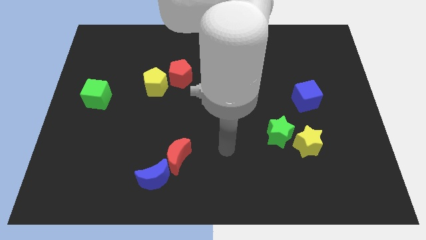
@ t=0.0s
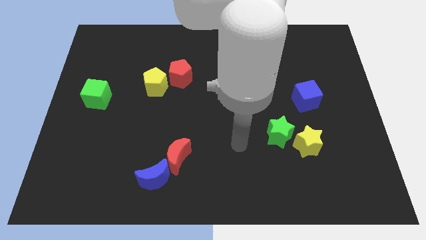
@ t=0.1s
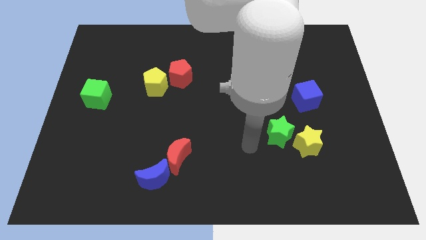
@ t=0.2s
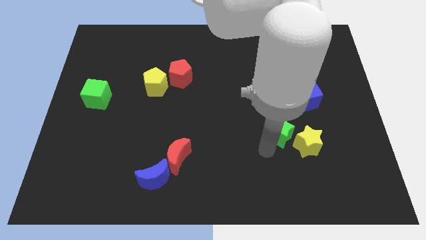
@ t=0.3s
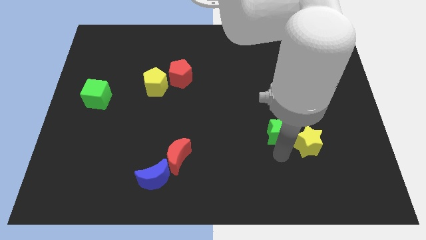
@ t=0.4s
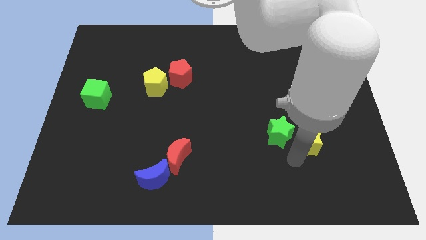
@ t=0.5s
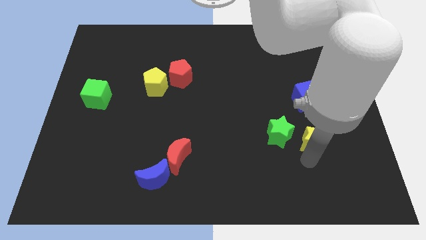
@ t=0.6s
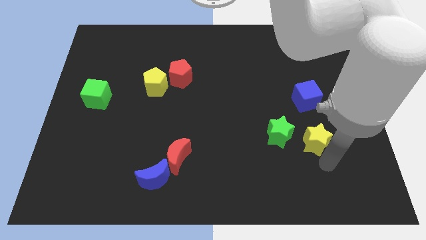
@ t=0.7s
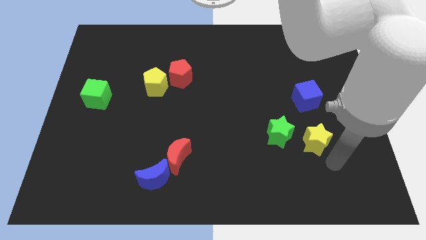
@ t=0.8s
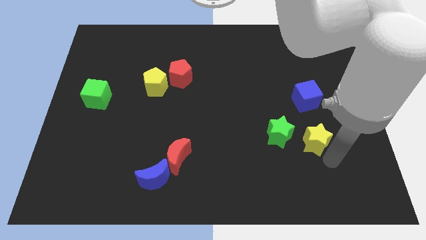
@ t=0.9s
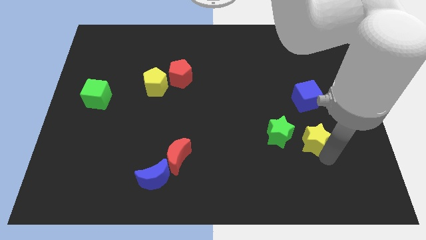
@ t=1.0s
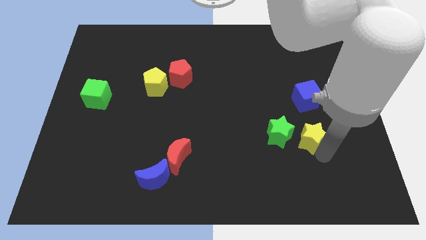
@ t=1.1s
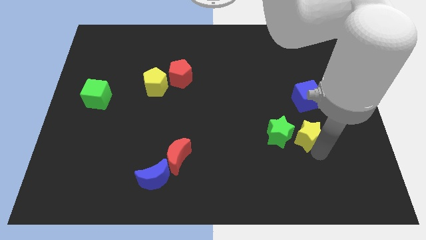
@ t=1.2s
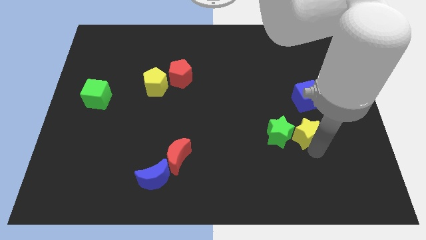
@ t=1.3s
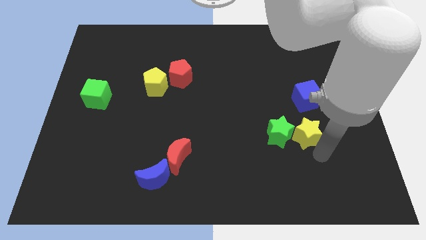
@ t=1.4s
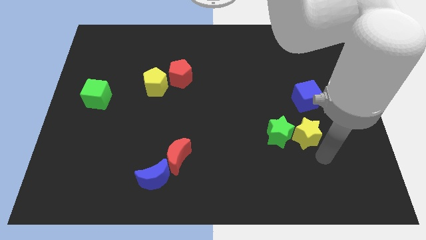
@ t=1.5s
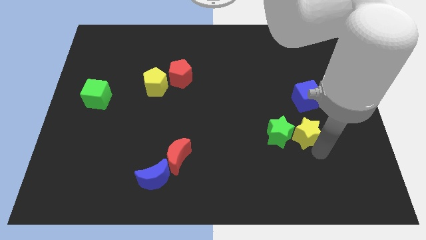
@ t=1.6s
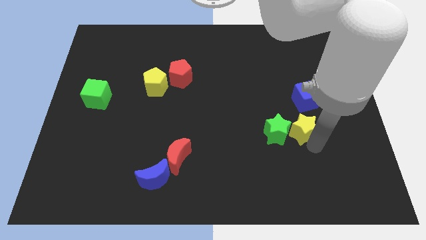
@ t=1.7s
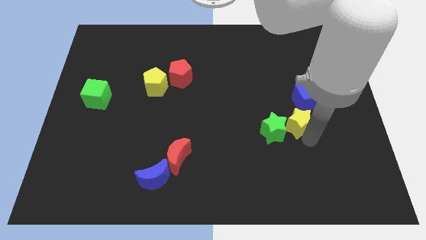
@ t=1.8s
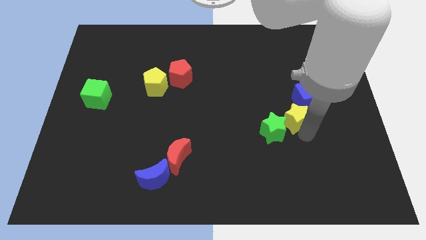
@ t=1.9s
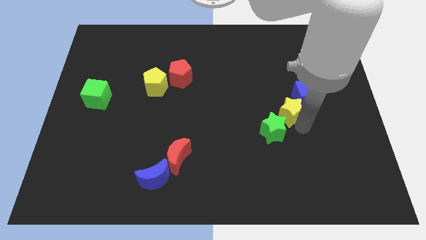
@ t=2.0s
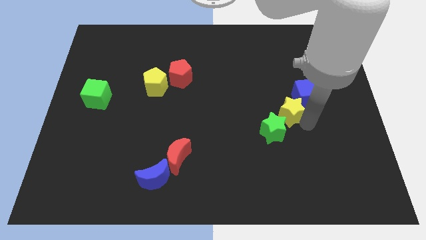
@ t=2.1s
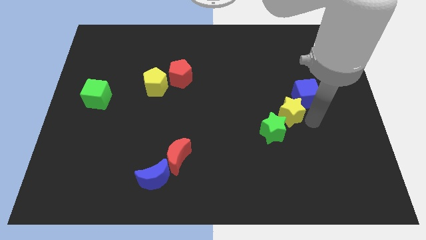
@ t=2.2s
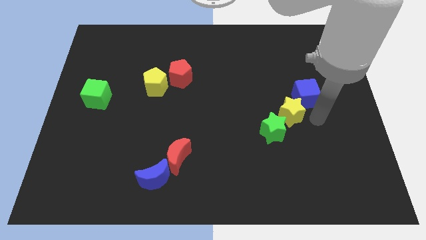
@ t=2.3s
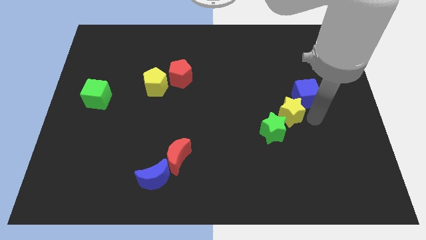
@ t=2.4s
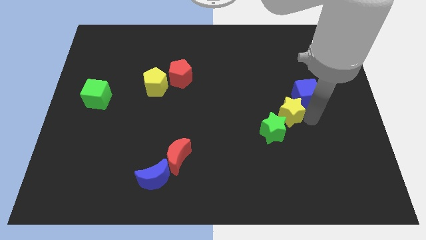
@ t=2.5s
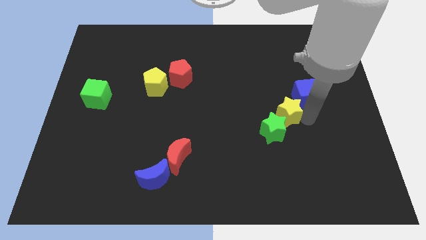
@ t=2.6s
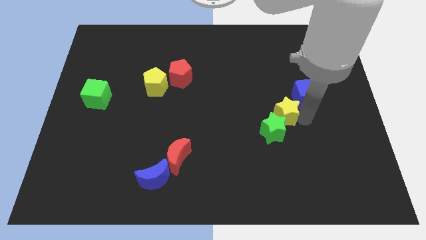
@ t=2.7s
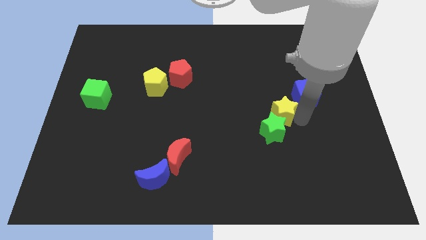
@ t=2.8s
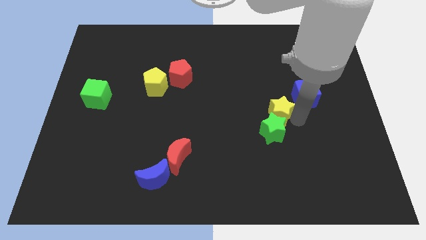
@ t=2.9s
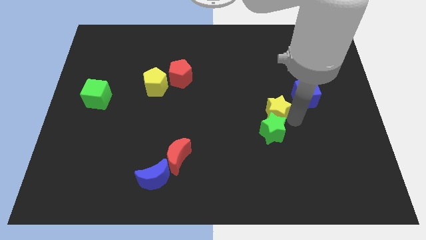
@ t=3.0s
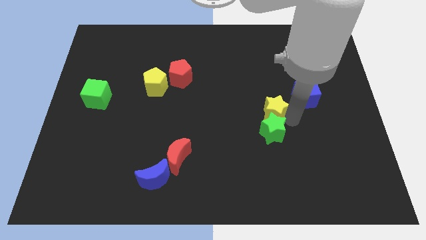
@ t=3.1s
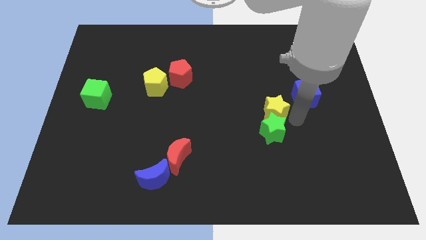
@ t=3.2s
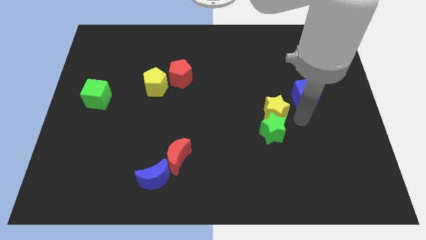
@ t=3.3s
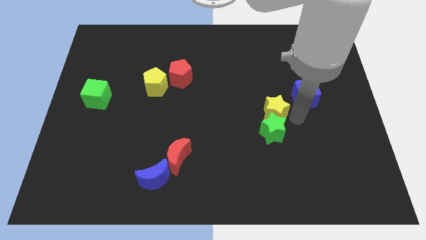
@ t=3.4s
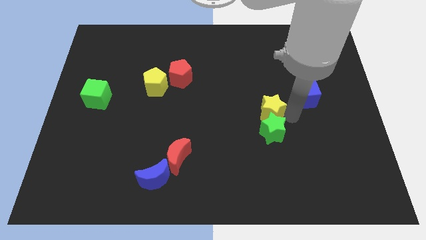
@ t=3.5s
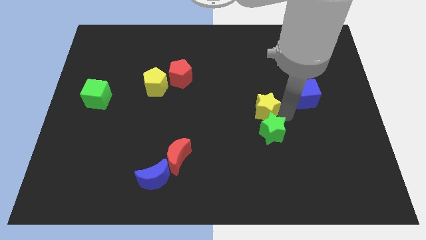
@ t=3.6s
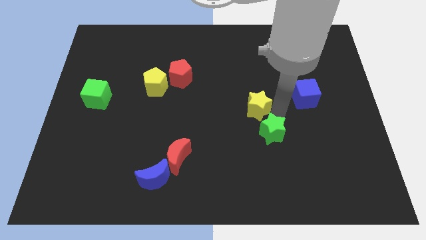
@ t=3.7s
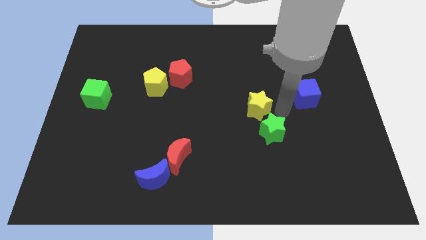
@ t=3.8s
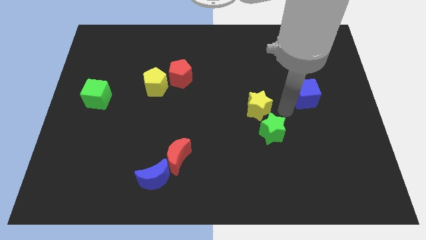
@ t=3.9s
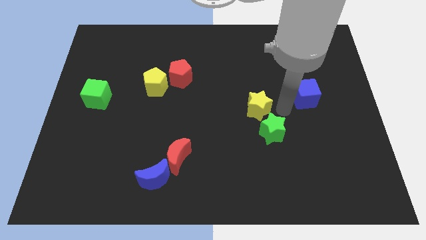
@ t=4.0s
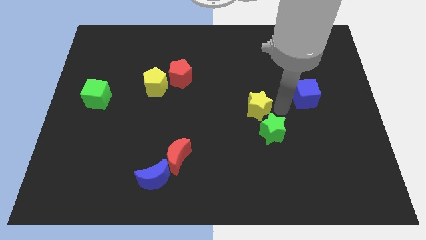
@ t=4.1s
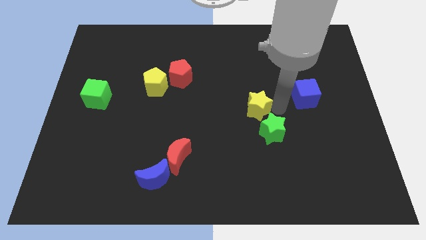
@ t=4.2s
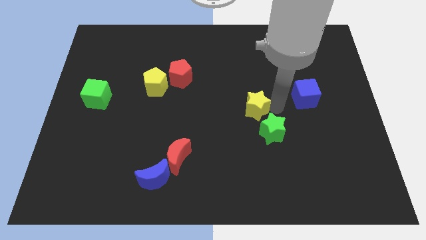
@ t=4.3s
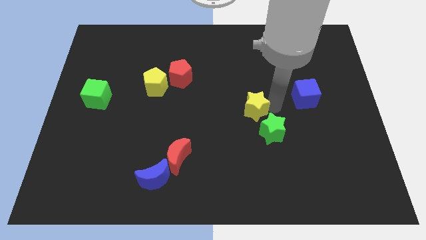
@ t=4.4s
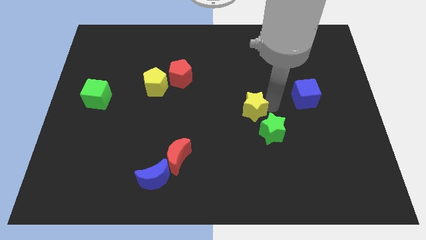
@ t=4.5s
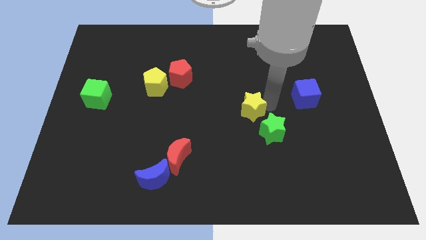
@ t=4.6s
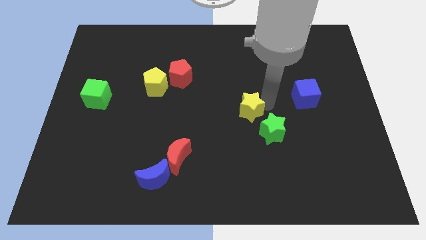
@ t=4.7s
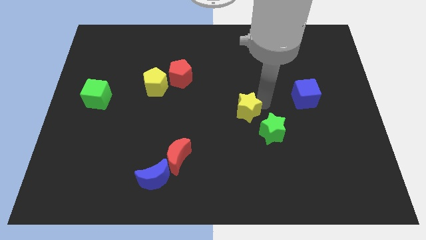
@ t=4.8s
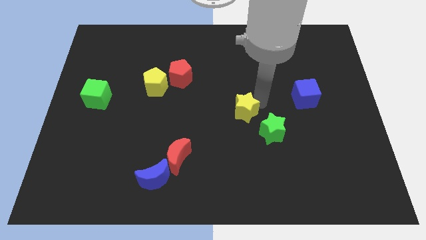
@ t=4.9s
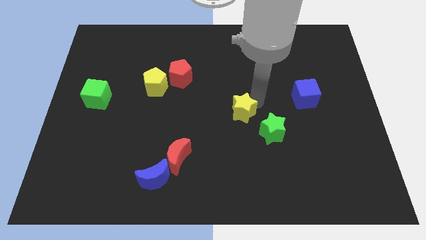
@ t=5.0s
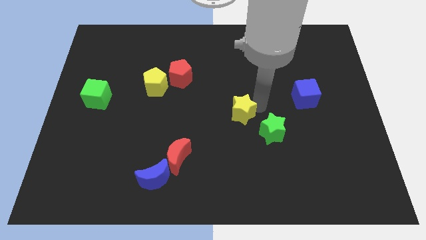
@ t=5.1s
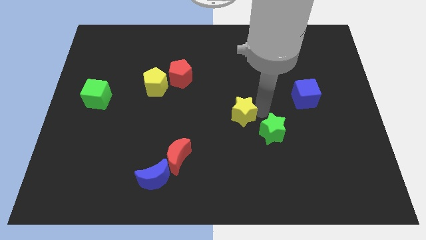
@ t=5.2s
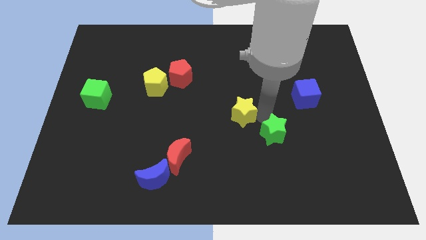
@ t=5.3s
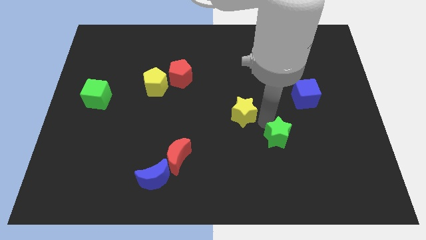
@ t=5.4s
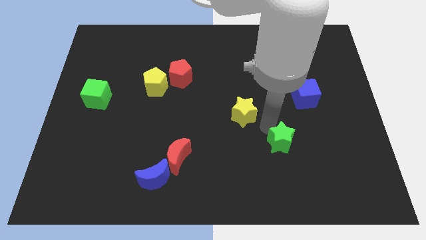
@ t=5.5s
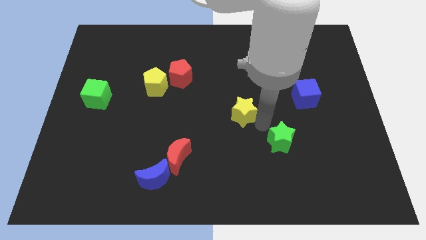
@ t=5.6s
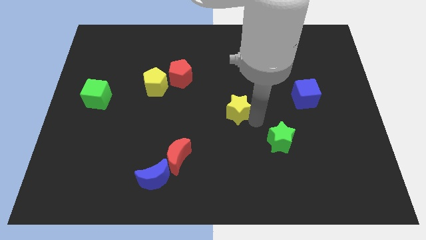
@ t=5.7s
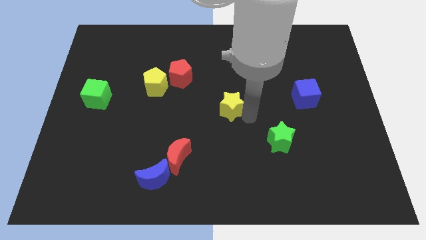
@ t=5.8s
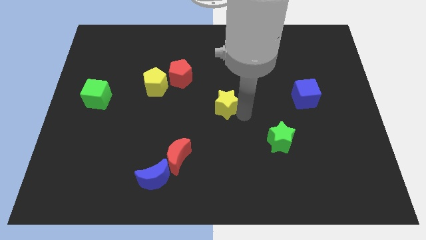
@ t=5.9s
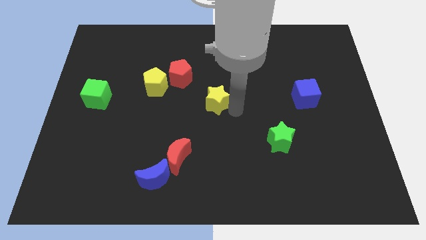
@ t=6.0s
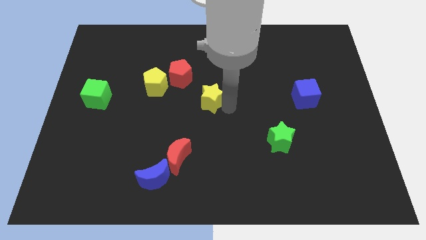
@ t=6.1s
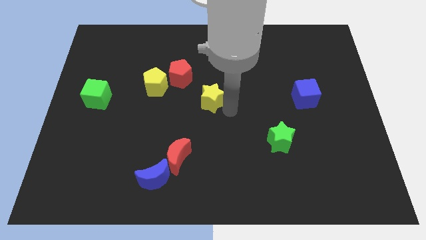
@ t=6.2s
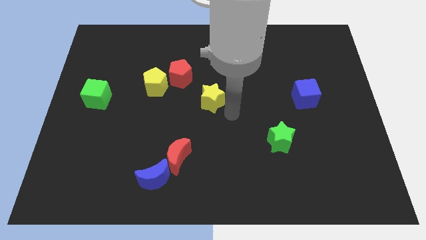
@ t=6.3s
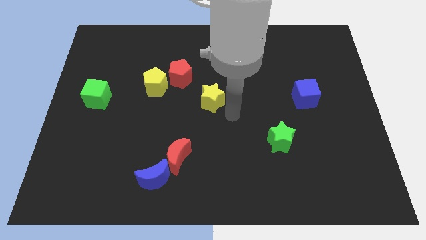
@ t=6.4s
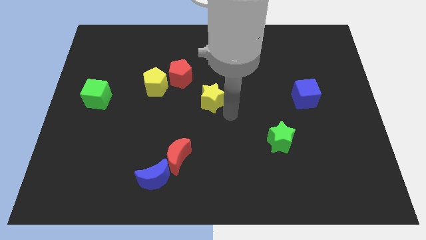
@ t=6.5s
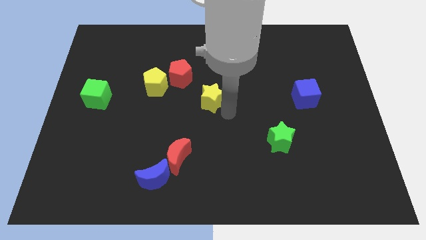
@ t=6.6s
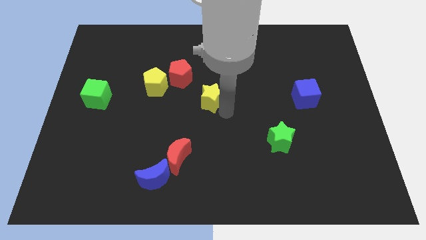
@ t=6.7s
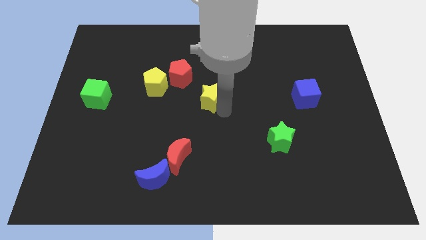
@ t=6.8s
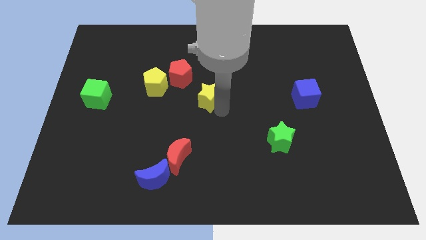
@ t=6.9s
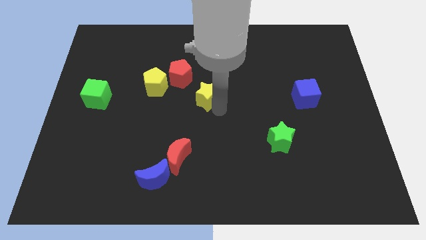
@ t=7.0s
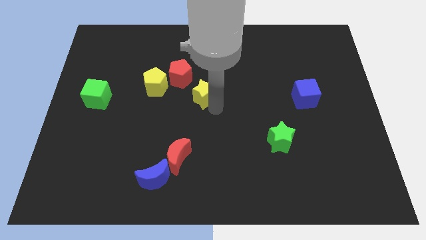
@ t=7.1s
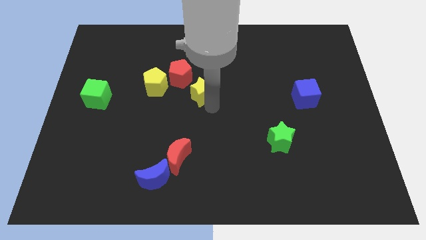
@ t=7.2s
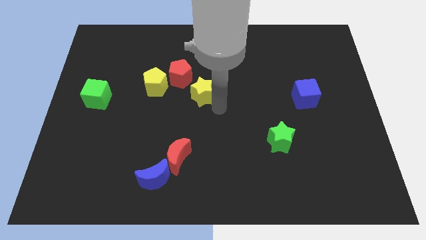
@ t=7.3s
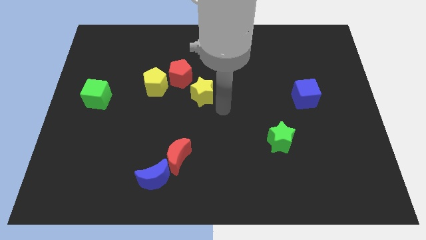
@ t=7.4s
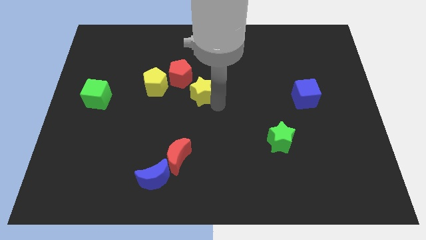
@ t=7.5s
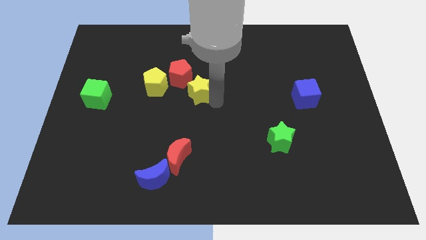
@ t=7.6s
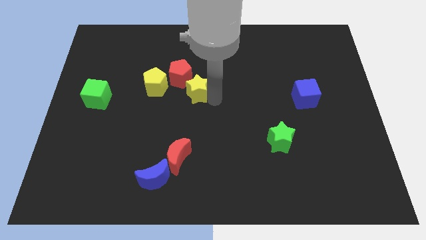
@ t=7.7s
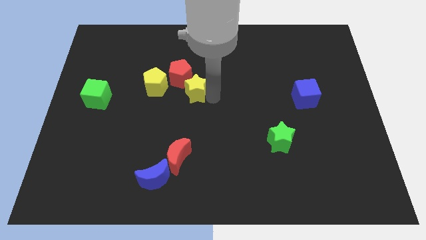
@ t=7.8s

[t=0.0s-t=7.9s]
push the yellow star next to the red pentagon
